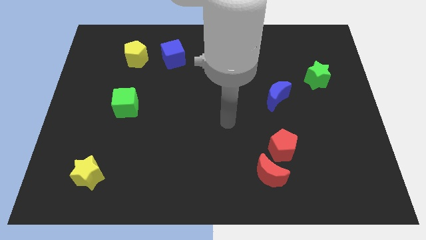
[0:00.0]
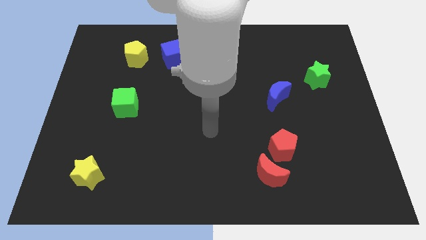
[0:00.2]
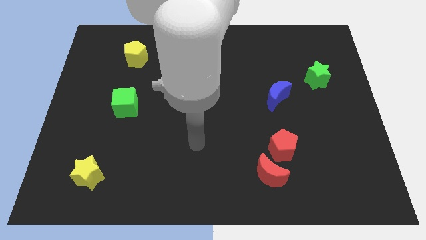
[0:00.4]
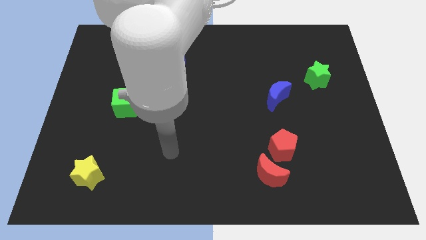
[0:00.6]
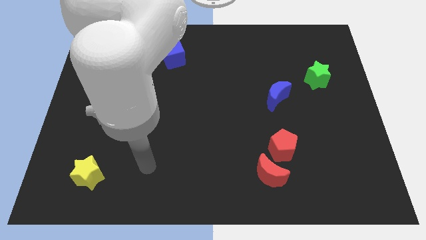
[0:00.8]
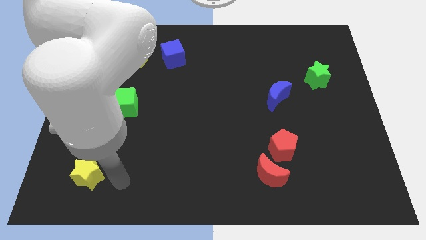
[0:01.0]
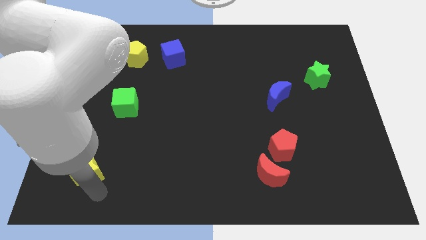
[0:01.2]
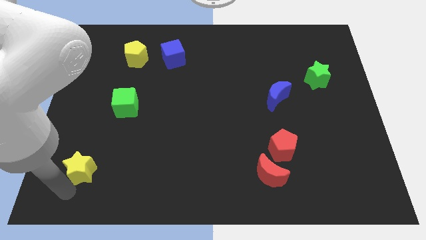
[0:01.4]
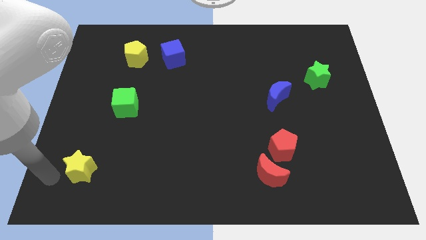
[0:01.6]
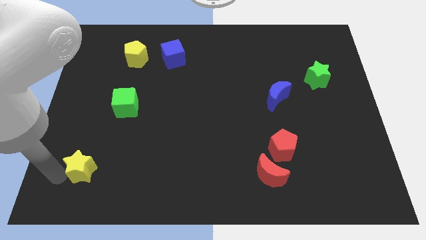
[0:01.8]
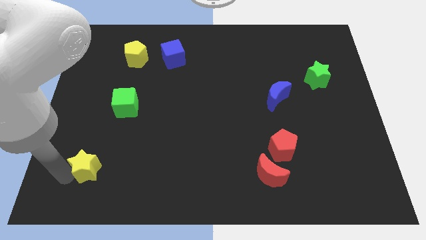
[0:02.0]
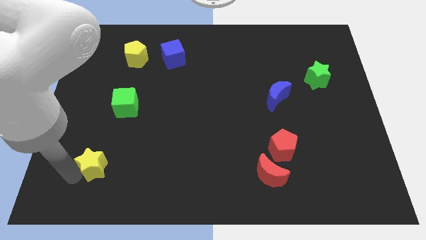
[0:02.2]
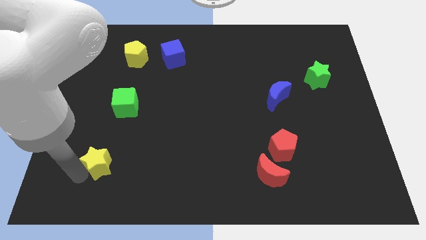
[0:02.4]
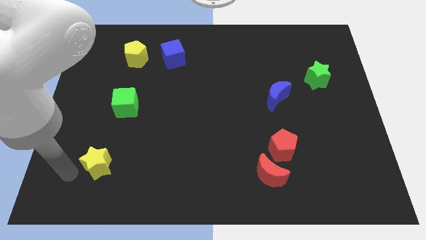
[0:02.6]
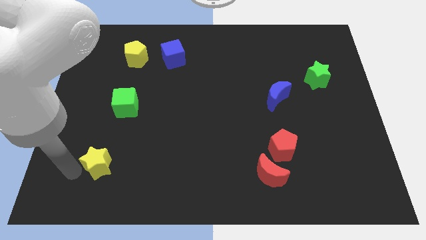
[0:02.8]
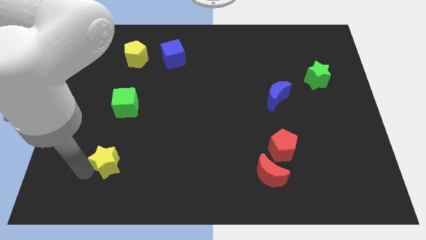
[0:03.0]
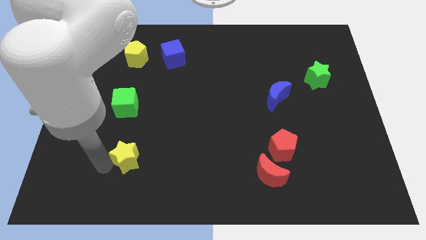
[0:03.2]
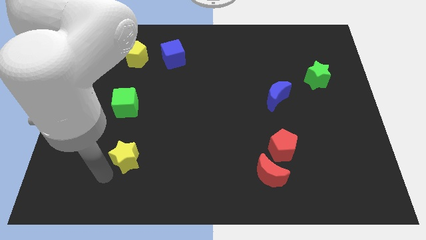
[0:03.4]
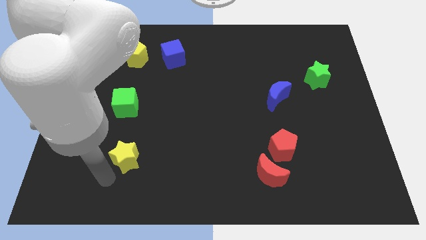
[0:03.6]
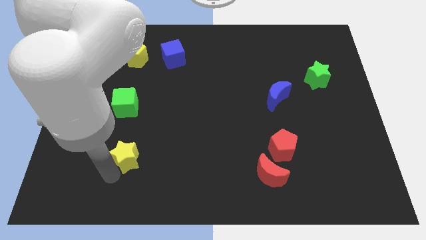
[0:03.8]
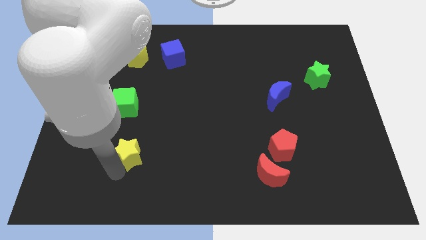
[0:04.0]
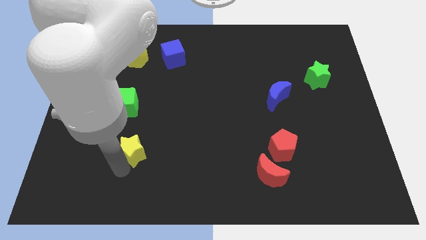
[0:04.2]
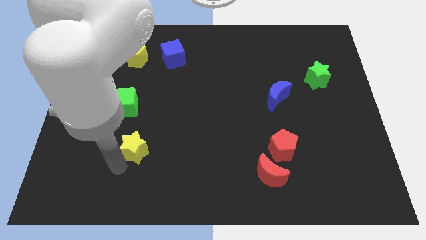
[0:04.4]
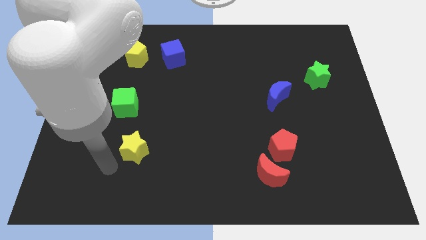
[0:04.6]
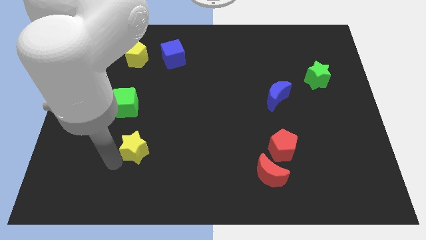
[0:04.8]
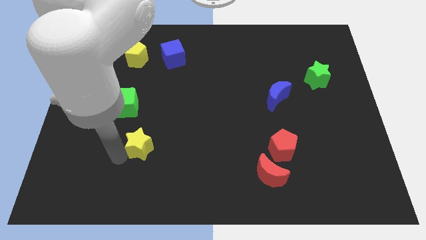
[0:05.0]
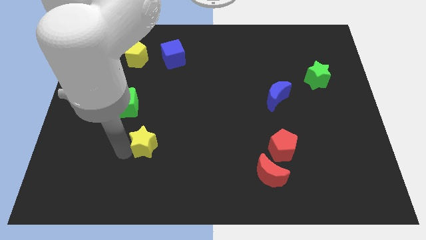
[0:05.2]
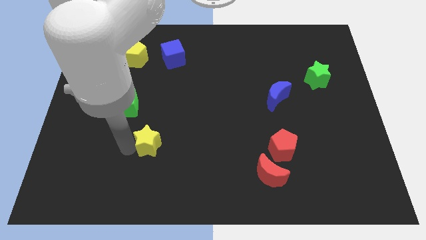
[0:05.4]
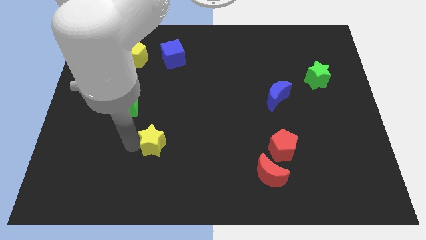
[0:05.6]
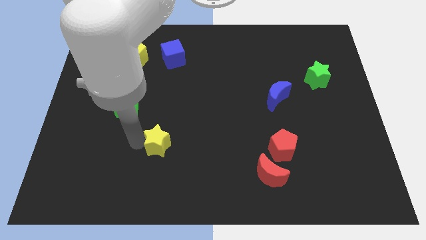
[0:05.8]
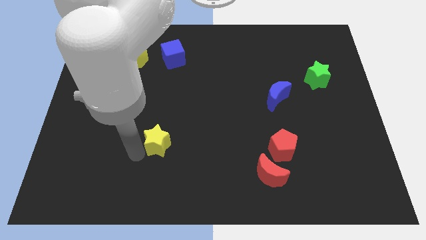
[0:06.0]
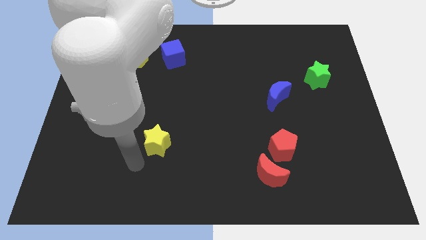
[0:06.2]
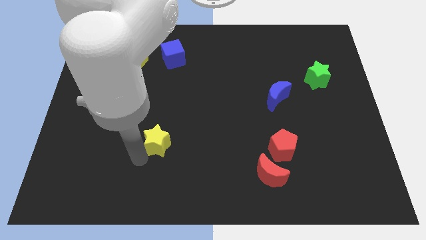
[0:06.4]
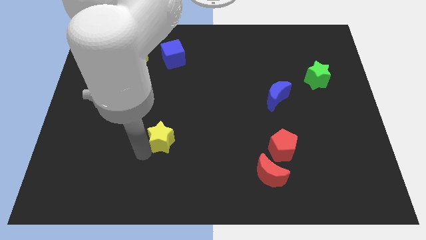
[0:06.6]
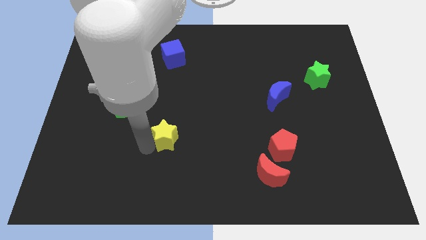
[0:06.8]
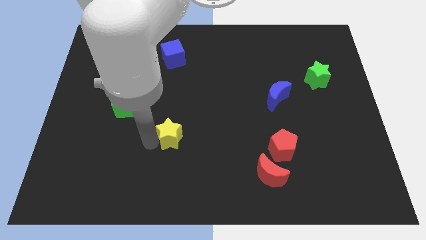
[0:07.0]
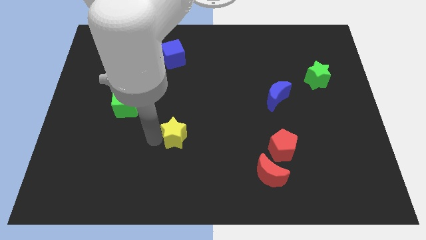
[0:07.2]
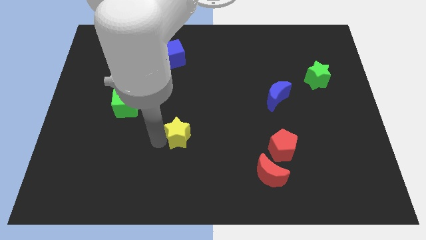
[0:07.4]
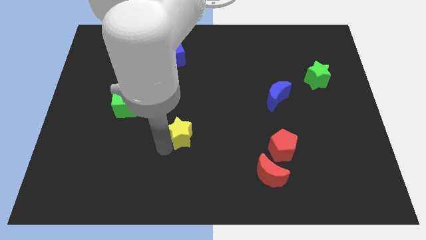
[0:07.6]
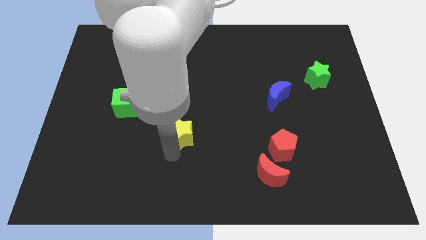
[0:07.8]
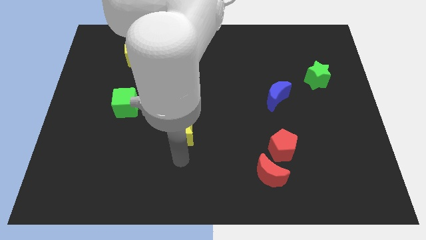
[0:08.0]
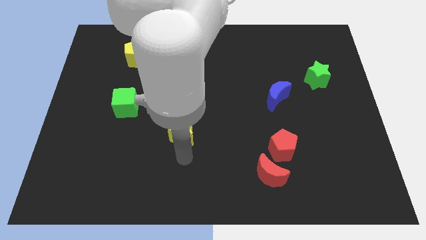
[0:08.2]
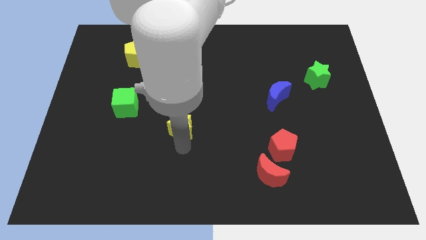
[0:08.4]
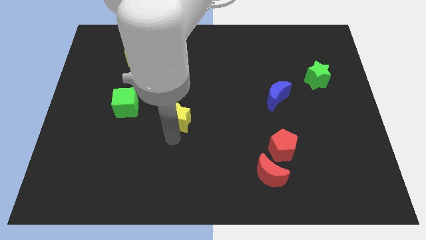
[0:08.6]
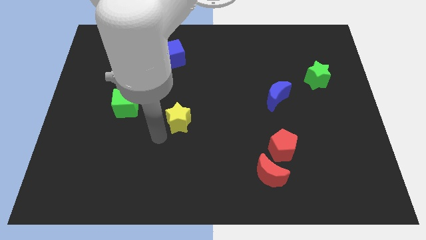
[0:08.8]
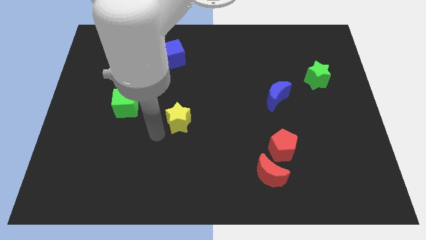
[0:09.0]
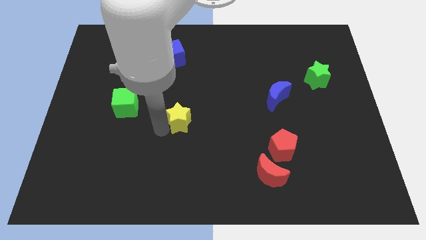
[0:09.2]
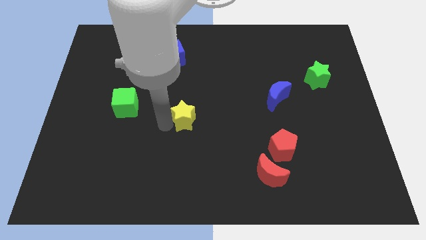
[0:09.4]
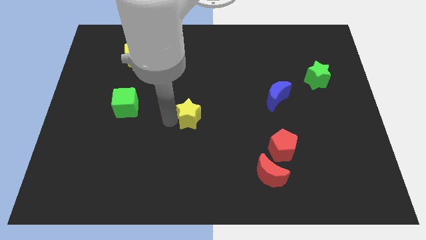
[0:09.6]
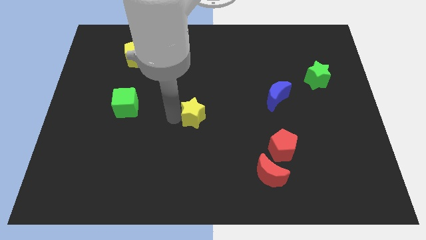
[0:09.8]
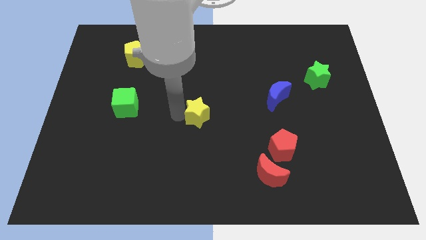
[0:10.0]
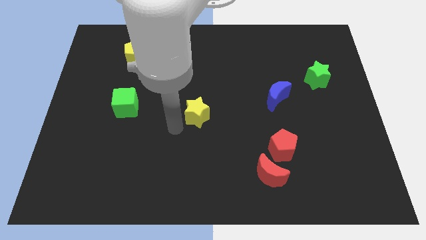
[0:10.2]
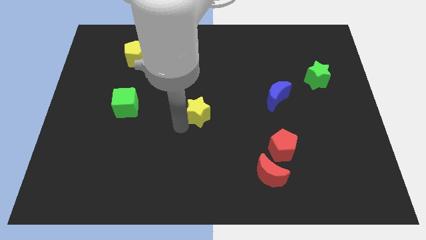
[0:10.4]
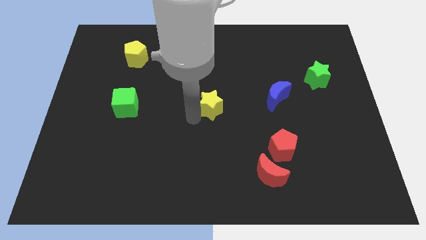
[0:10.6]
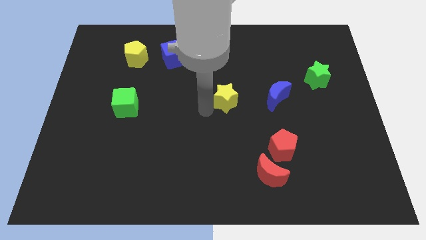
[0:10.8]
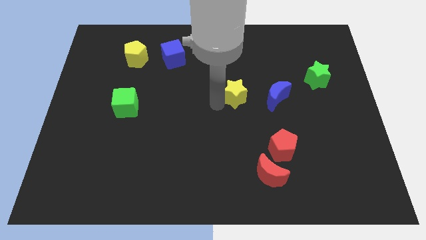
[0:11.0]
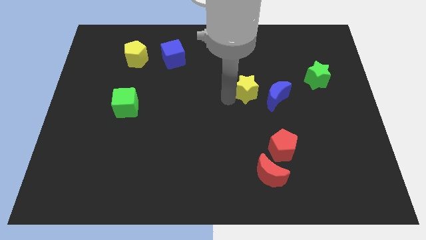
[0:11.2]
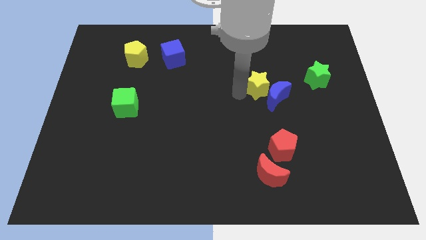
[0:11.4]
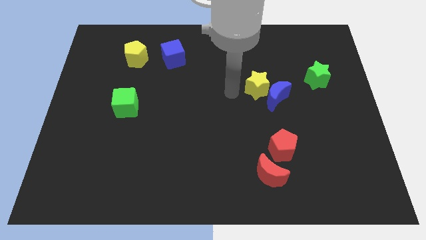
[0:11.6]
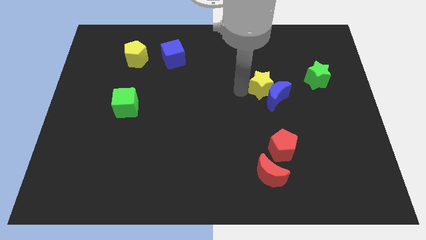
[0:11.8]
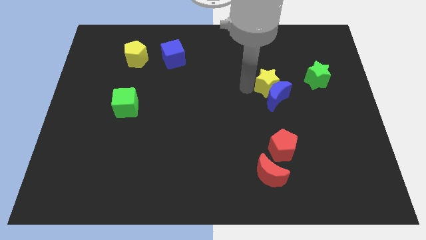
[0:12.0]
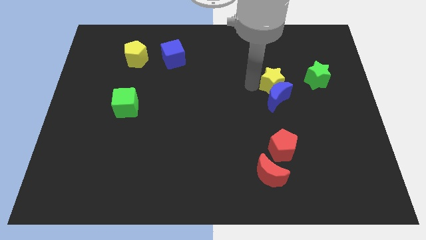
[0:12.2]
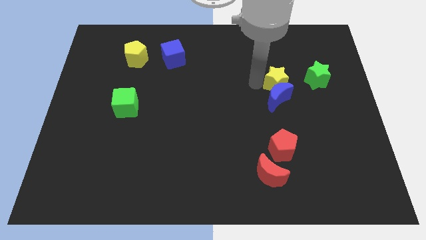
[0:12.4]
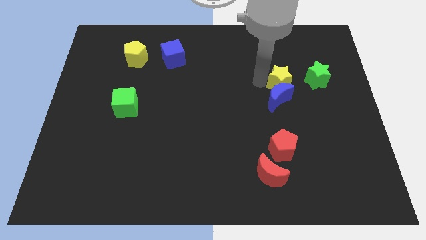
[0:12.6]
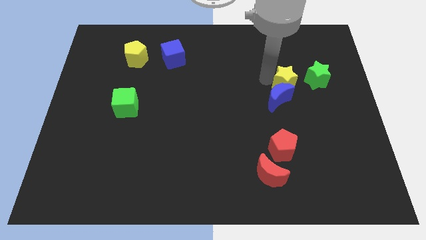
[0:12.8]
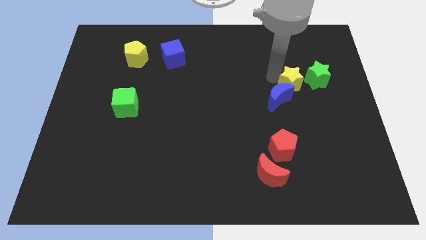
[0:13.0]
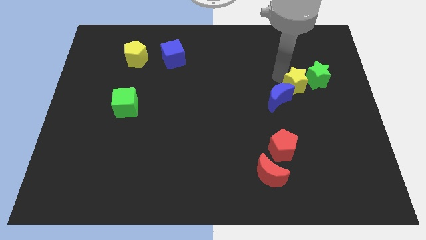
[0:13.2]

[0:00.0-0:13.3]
push the yellow star to the green star
